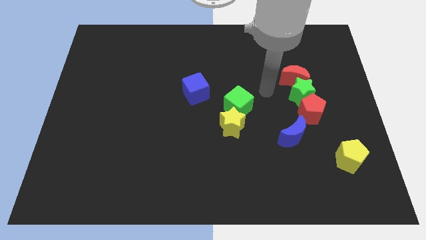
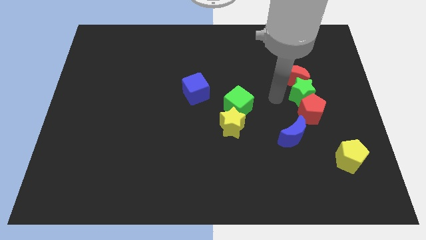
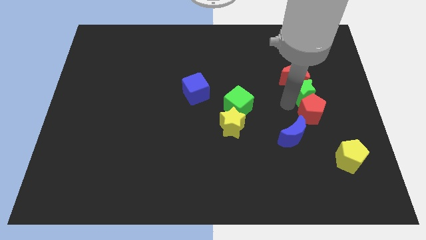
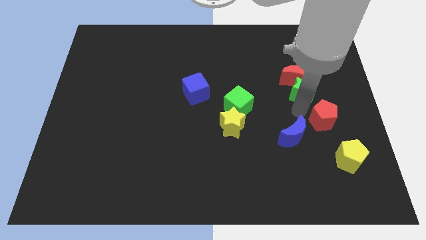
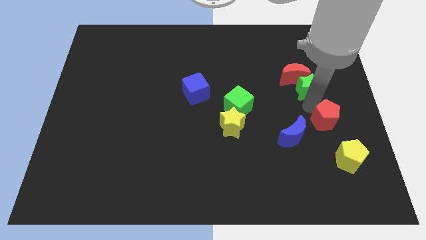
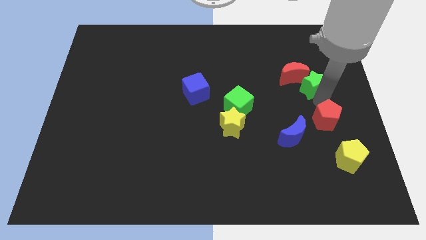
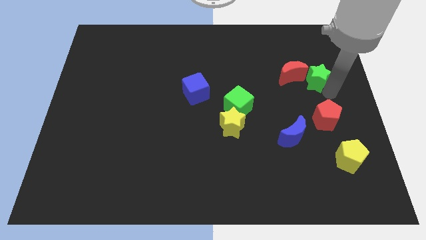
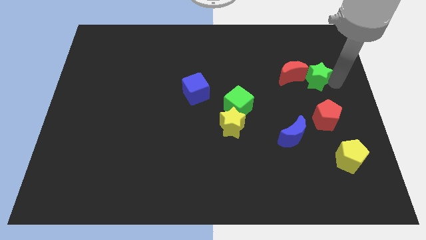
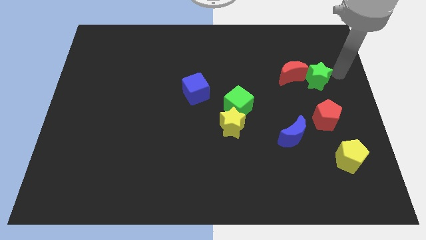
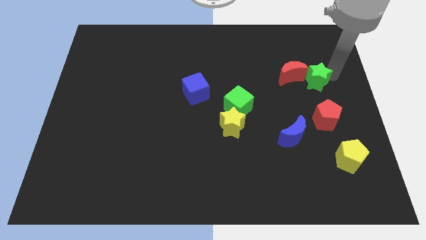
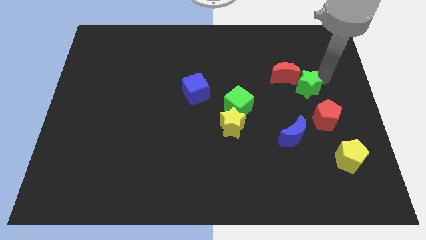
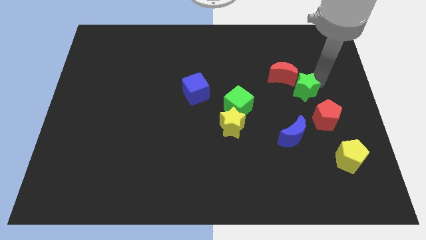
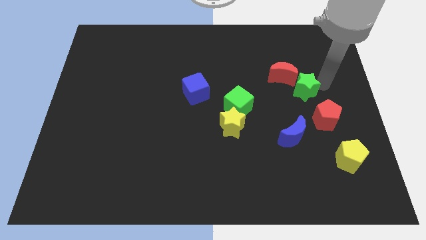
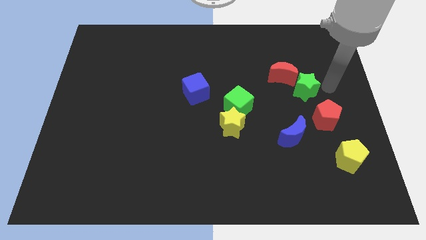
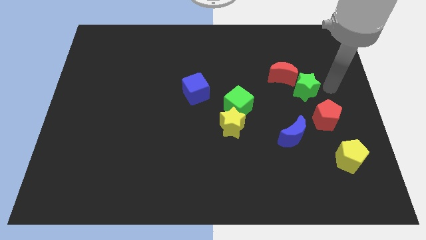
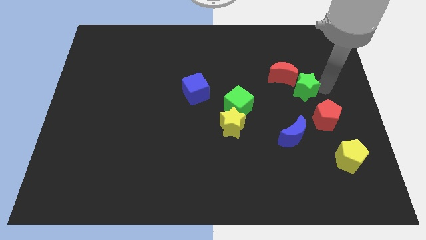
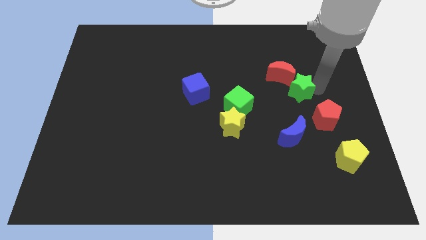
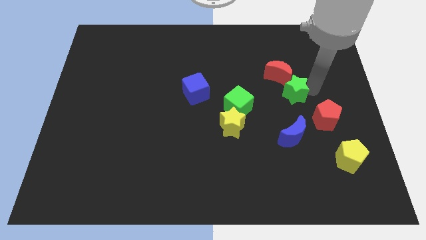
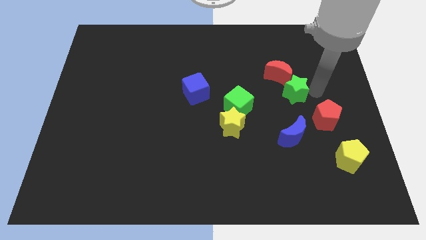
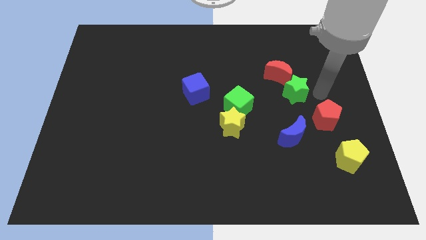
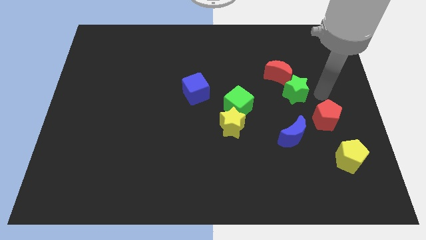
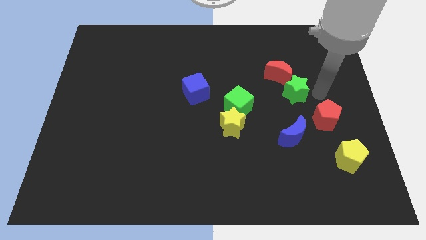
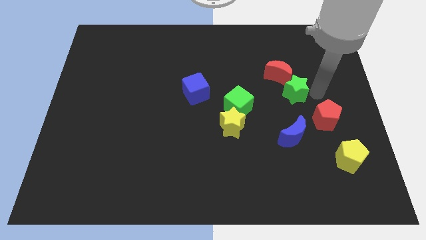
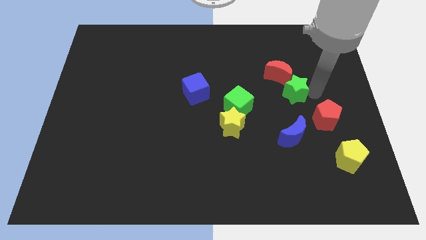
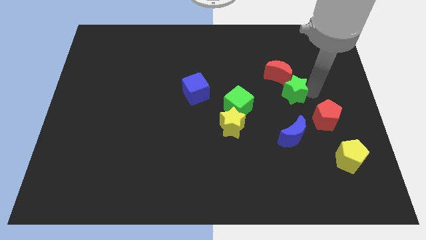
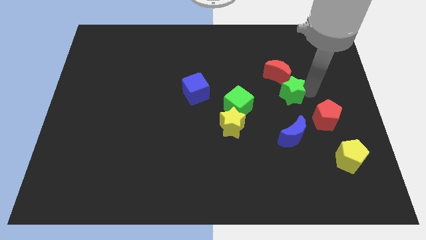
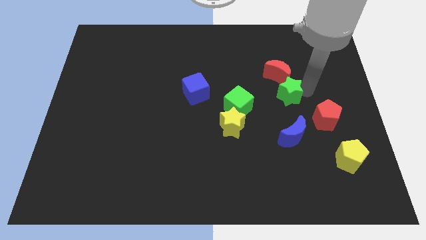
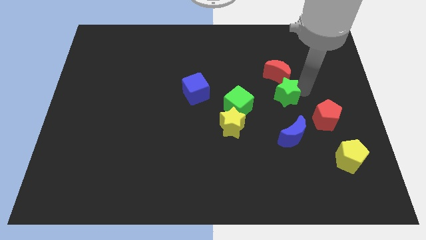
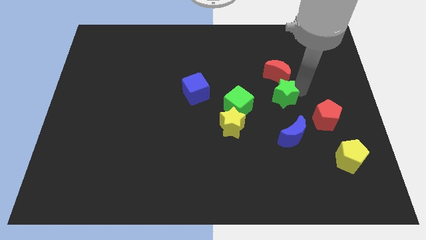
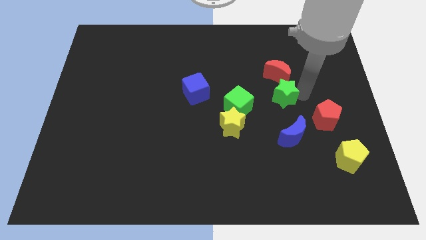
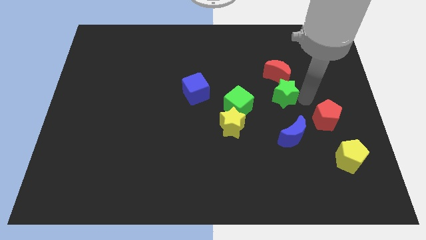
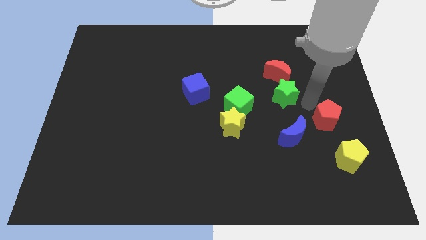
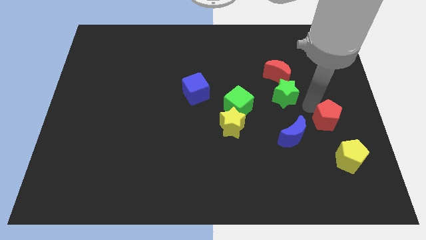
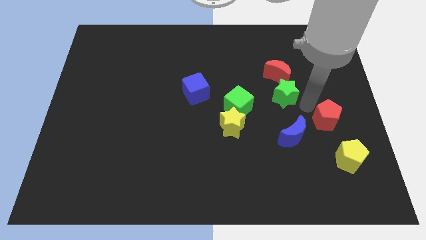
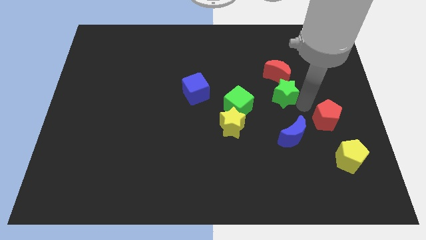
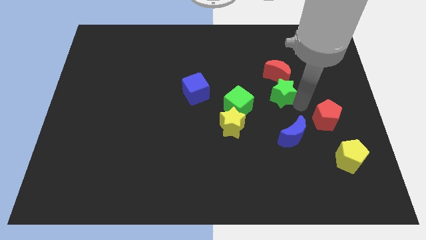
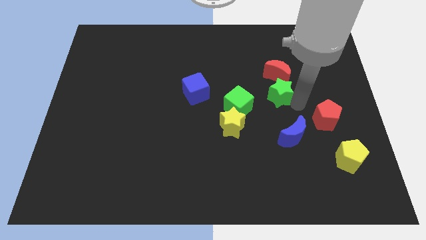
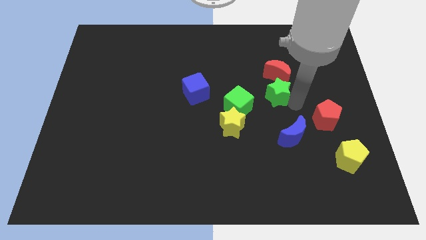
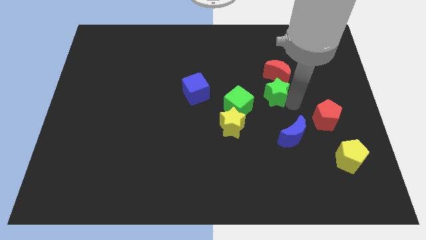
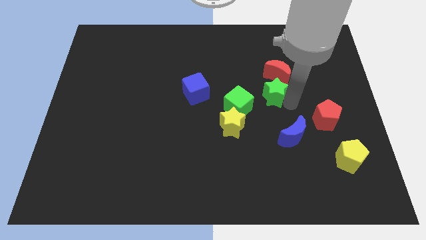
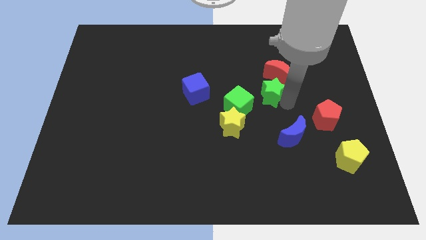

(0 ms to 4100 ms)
push the green star a little left

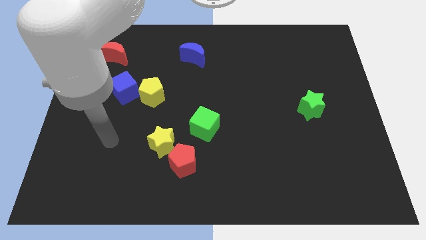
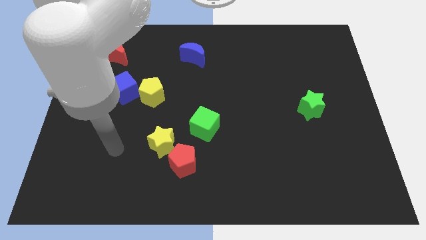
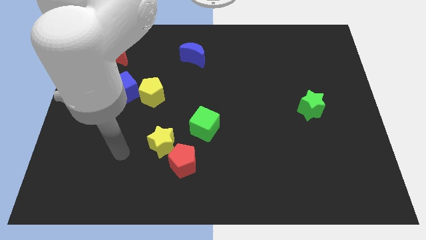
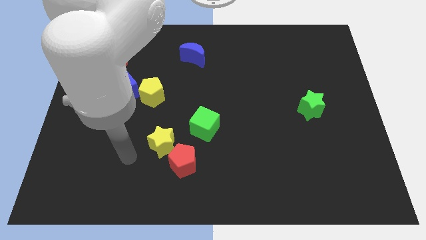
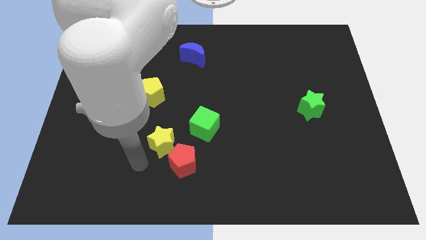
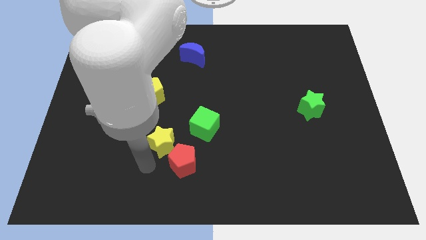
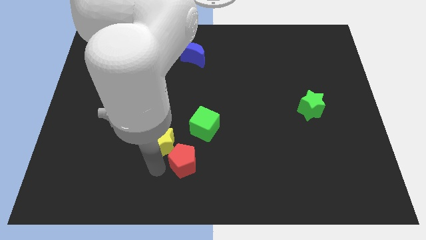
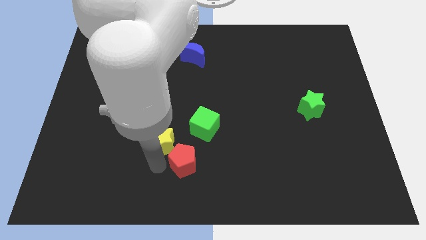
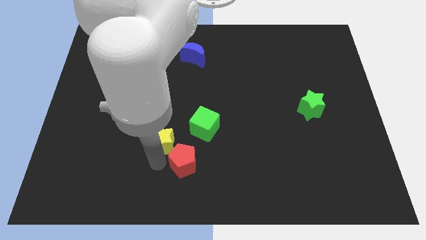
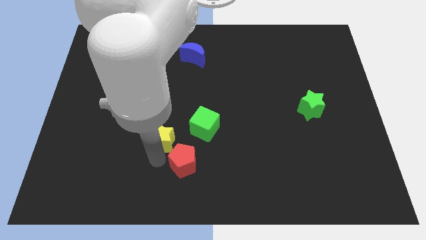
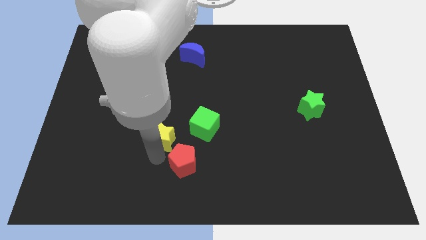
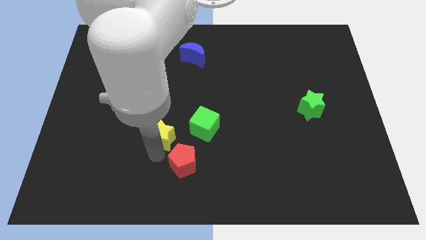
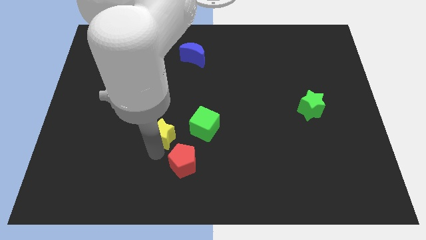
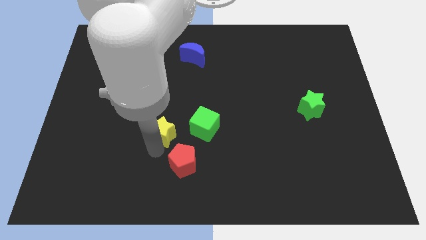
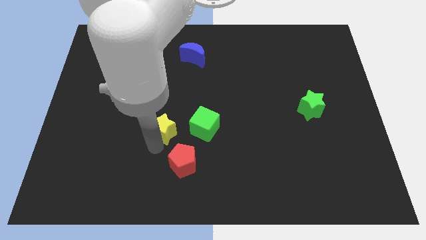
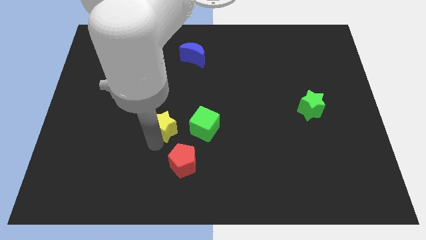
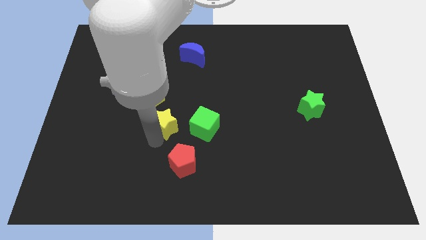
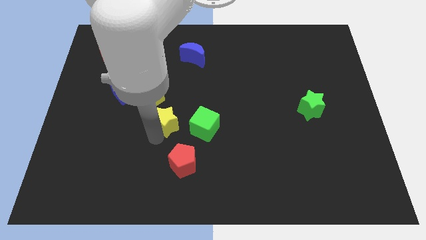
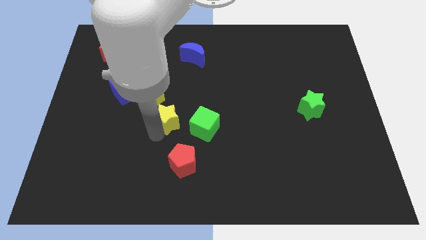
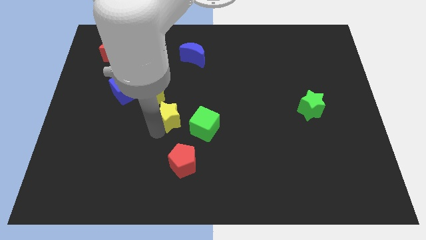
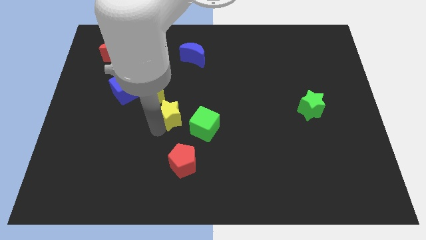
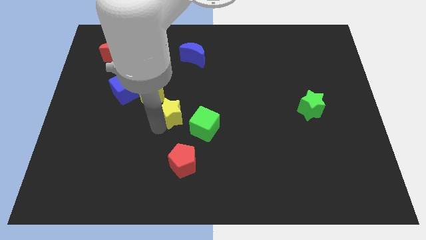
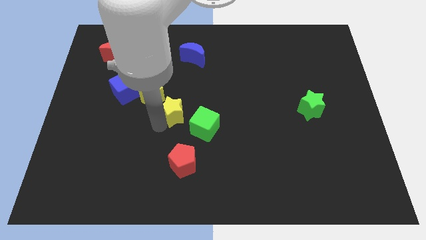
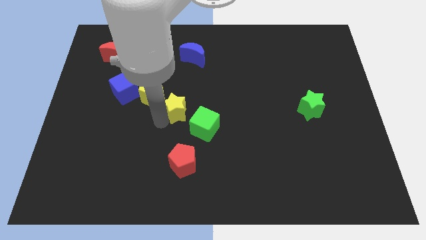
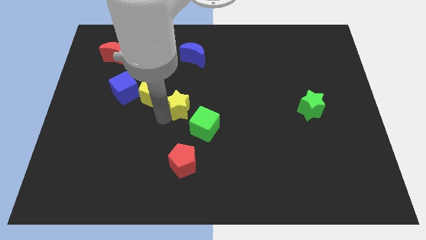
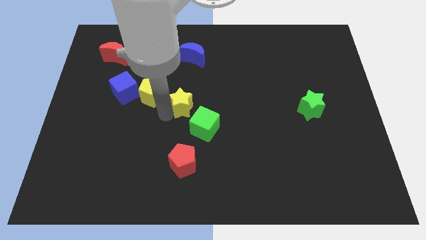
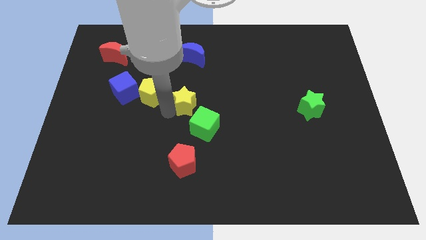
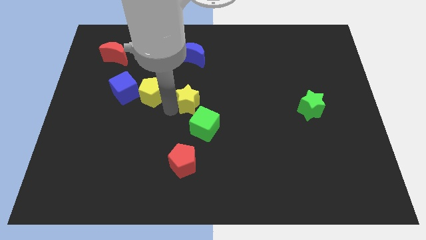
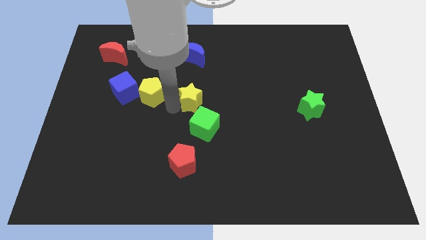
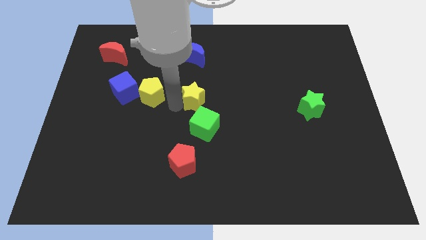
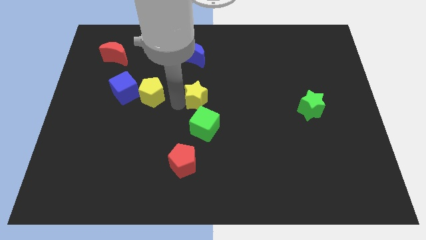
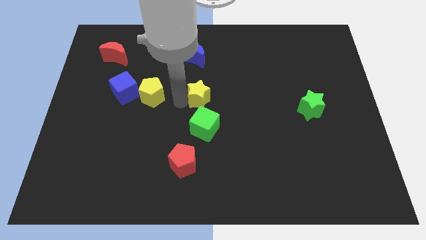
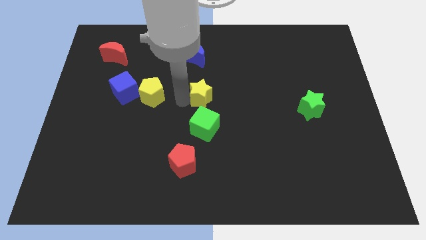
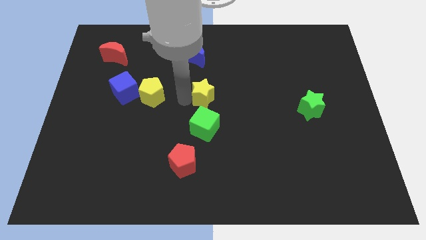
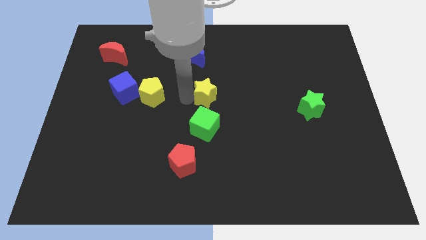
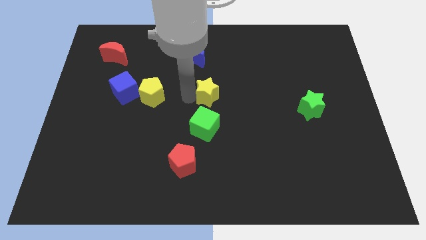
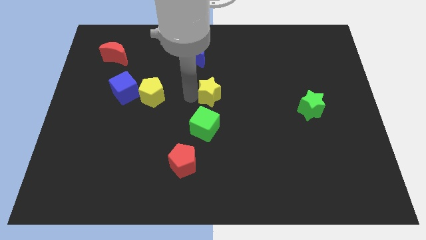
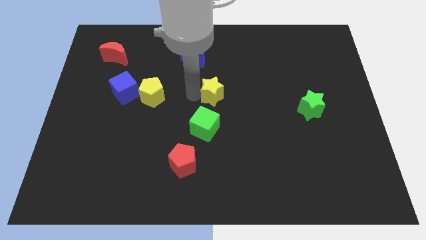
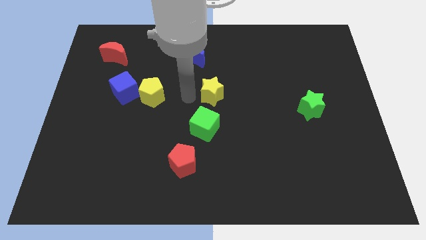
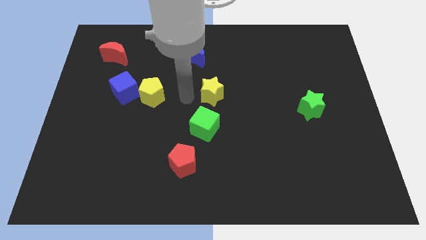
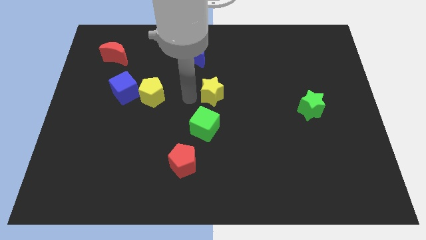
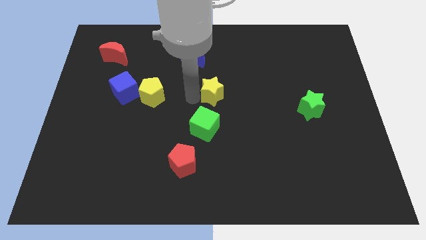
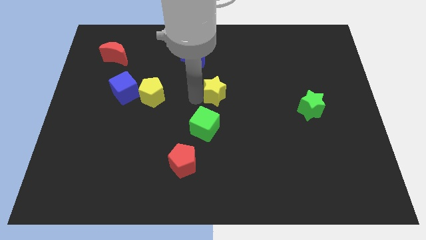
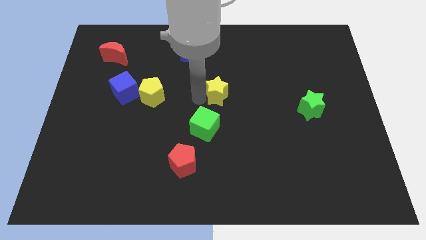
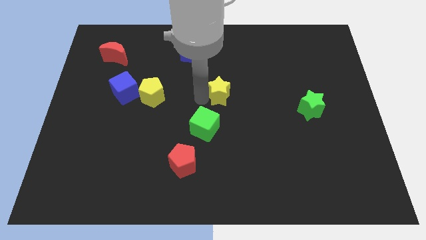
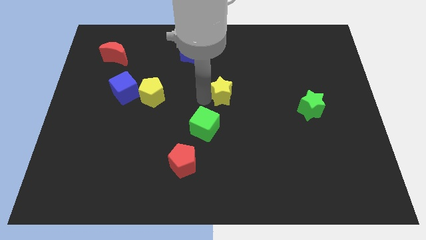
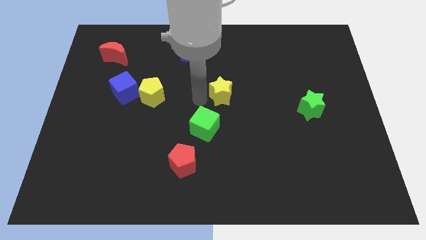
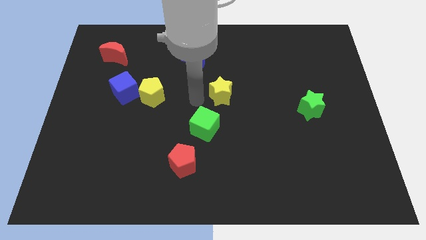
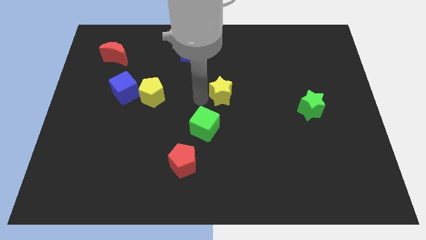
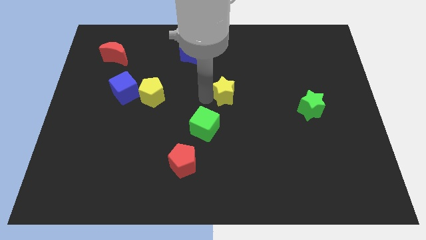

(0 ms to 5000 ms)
slide the yellow star up and to the right diagonally
